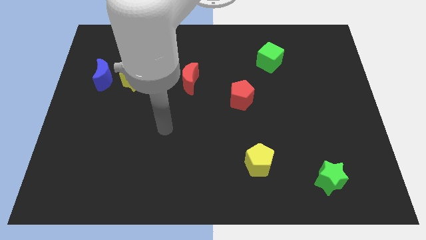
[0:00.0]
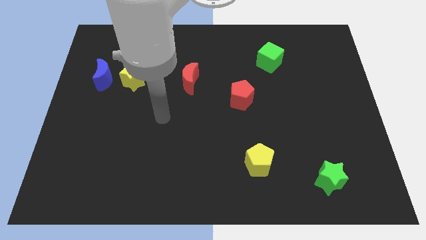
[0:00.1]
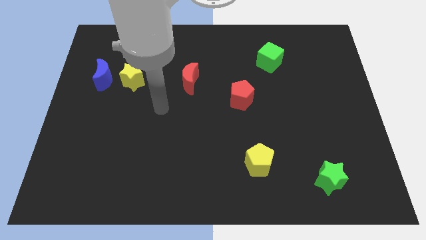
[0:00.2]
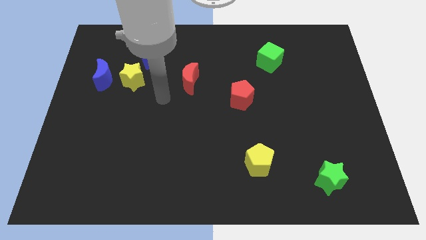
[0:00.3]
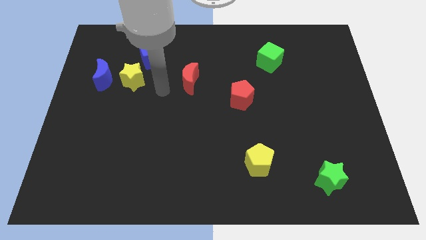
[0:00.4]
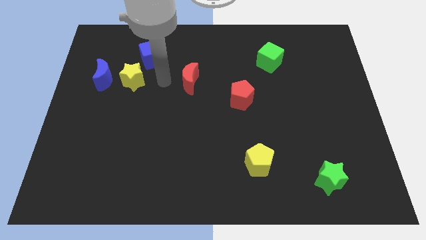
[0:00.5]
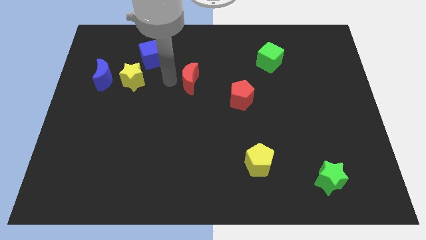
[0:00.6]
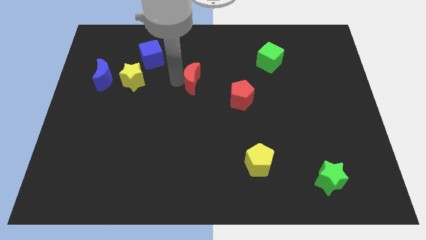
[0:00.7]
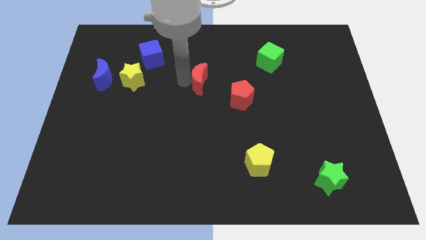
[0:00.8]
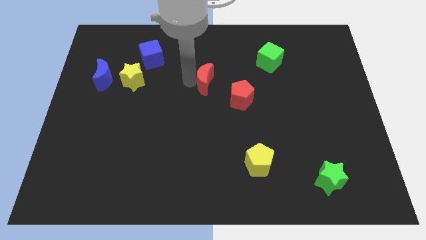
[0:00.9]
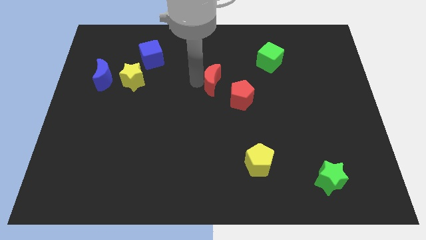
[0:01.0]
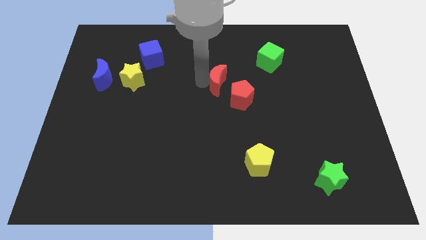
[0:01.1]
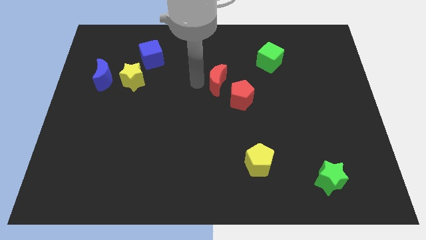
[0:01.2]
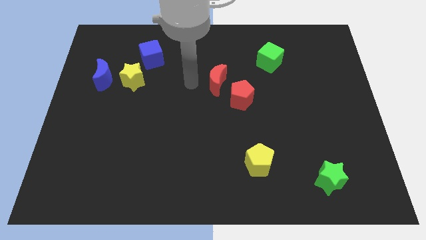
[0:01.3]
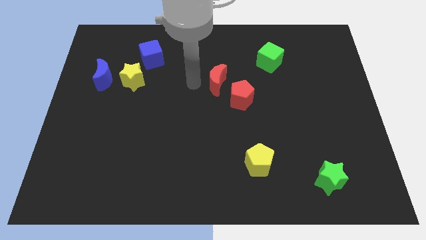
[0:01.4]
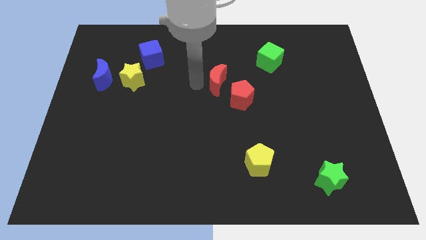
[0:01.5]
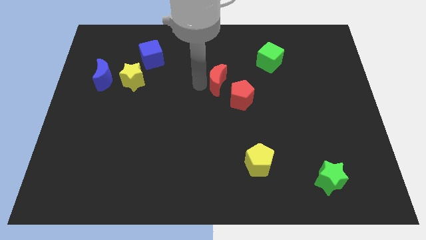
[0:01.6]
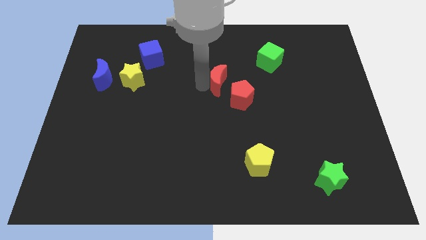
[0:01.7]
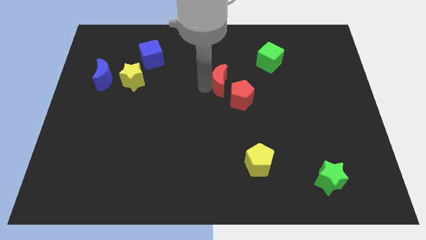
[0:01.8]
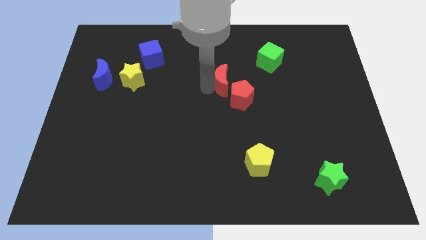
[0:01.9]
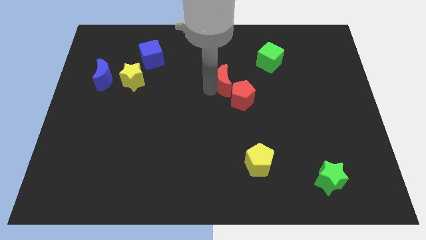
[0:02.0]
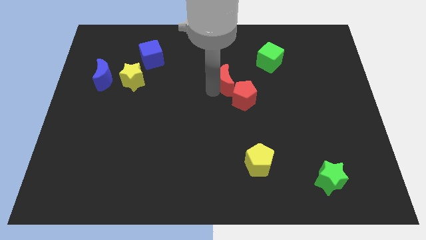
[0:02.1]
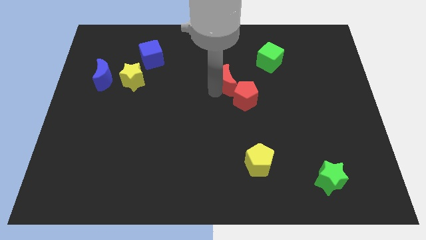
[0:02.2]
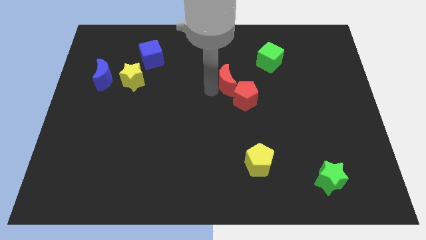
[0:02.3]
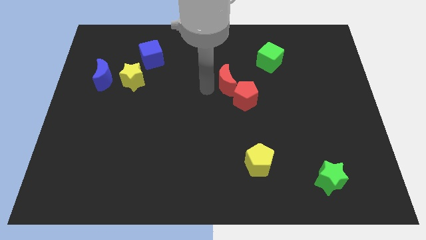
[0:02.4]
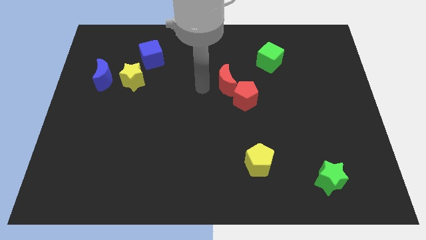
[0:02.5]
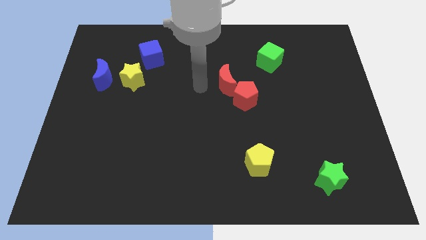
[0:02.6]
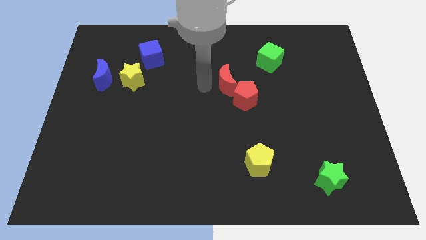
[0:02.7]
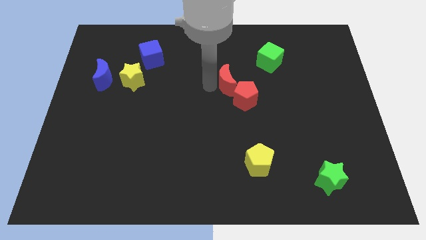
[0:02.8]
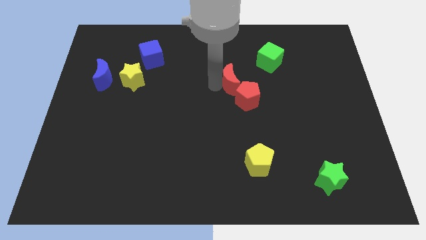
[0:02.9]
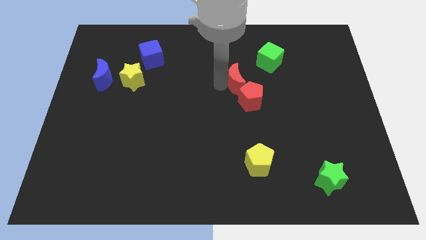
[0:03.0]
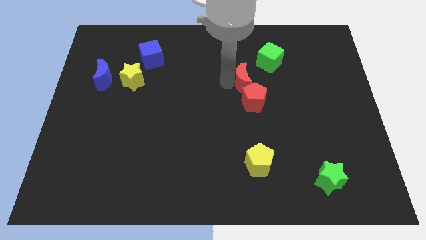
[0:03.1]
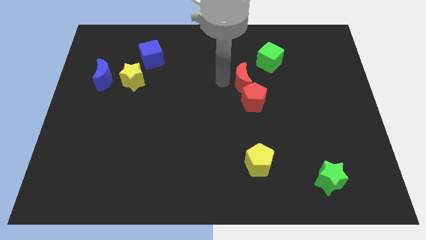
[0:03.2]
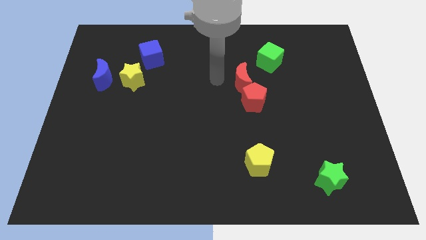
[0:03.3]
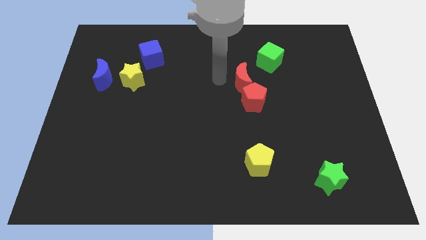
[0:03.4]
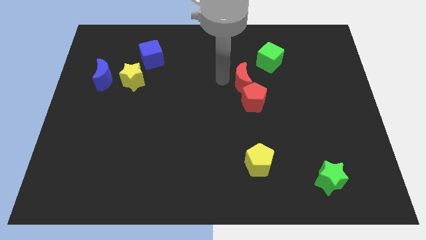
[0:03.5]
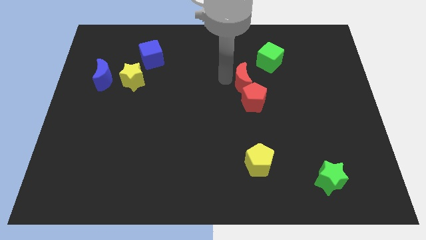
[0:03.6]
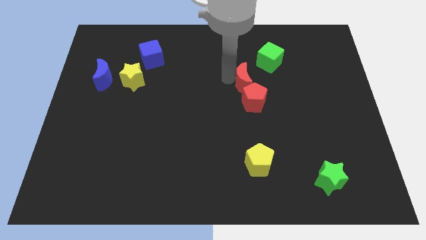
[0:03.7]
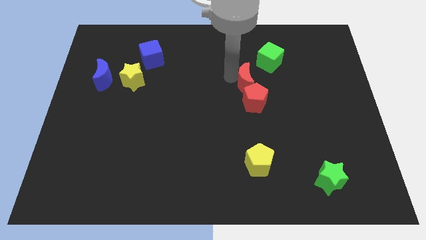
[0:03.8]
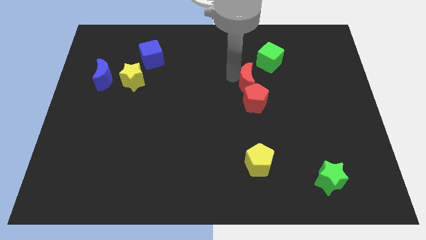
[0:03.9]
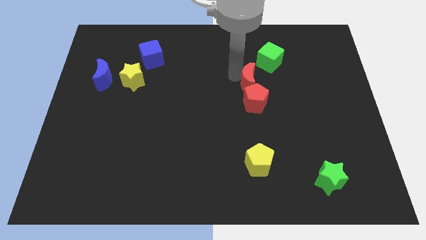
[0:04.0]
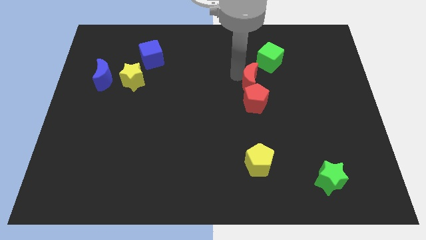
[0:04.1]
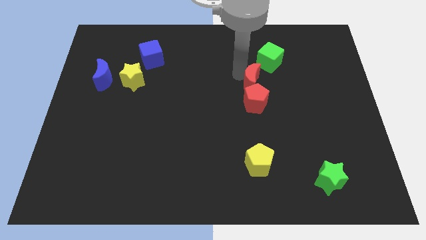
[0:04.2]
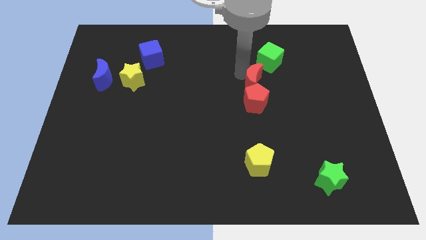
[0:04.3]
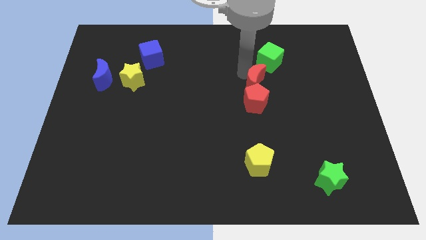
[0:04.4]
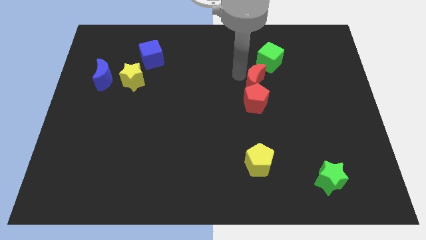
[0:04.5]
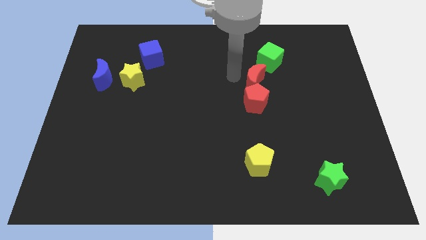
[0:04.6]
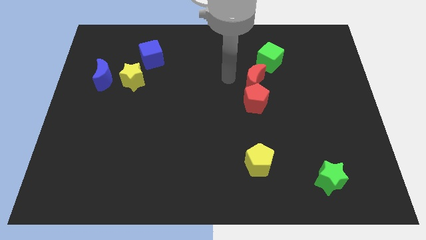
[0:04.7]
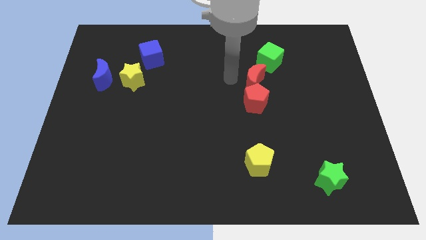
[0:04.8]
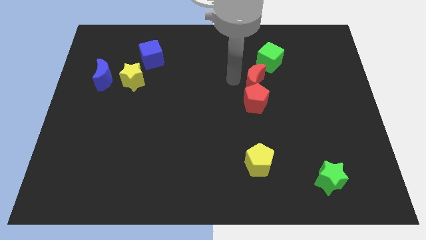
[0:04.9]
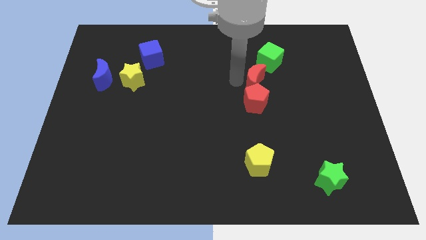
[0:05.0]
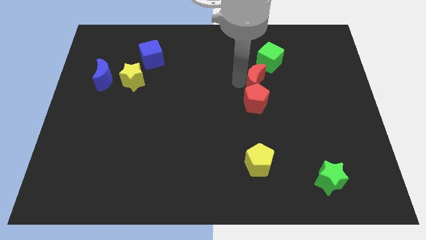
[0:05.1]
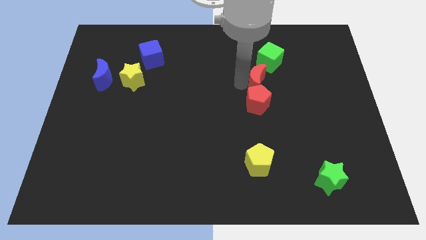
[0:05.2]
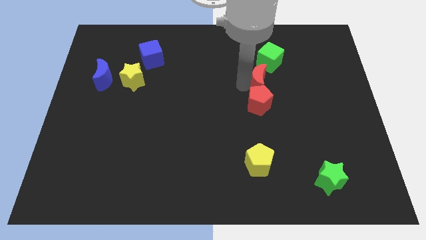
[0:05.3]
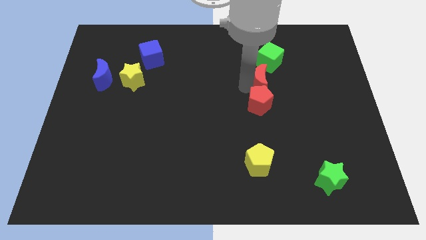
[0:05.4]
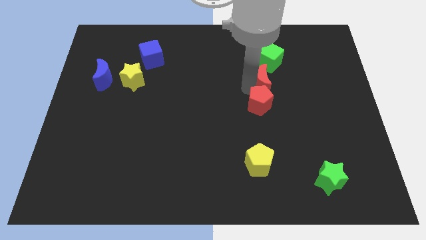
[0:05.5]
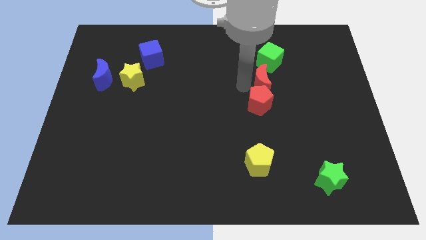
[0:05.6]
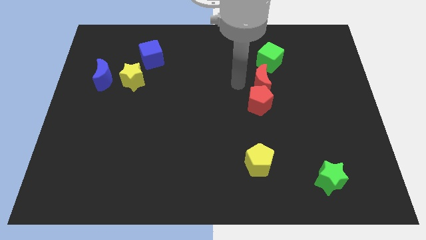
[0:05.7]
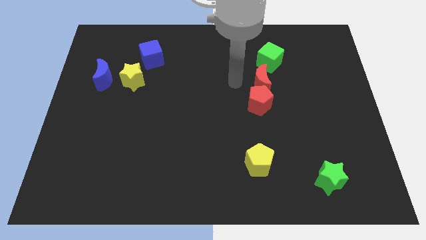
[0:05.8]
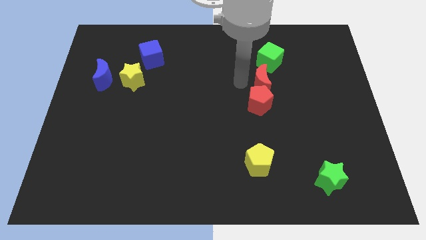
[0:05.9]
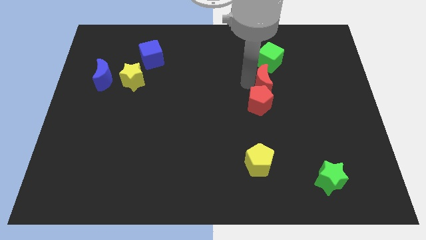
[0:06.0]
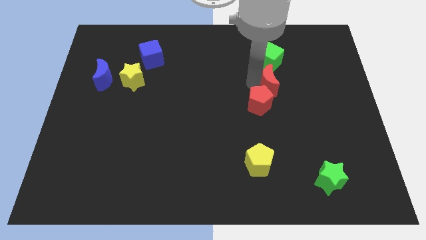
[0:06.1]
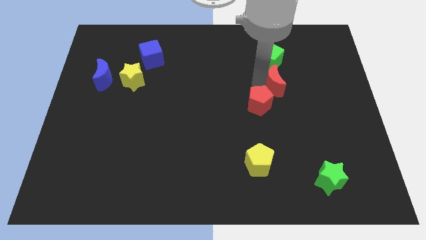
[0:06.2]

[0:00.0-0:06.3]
slide the red moon to the right

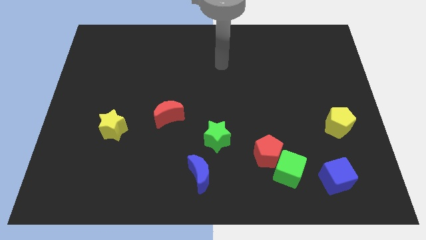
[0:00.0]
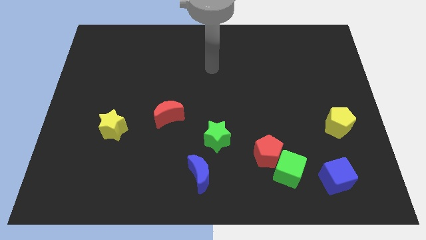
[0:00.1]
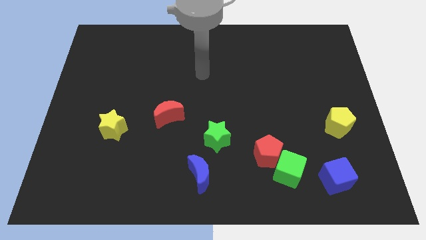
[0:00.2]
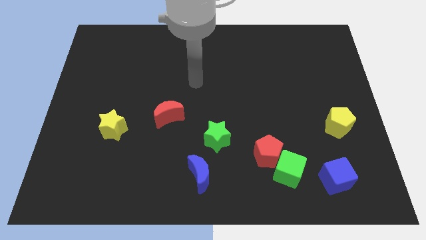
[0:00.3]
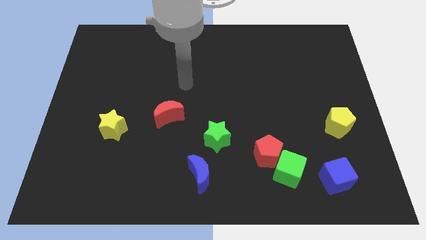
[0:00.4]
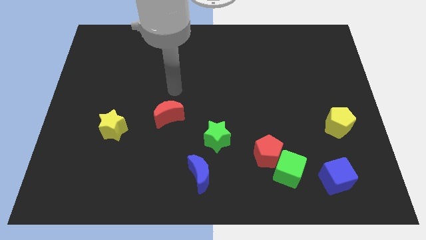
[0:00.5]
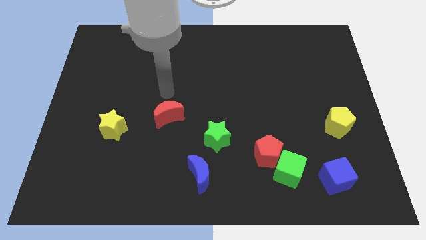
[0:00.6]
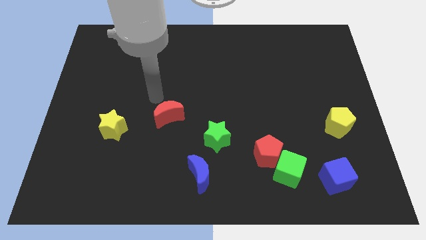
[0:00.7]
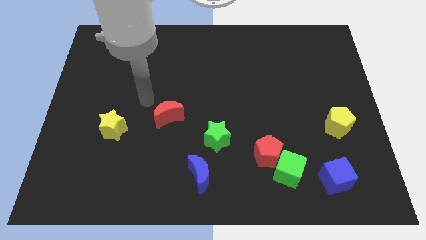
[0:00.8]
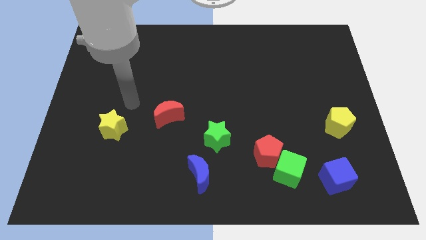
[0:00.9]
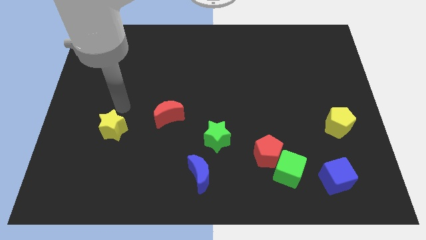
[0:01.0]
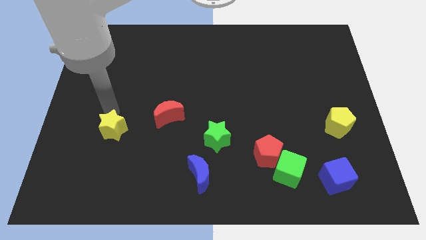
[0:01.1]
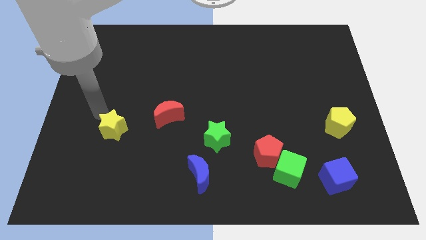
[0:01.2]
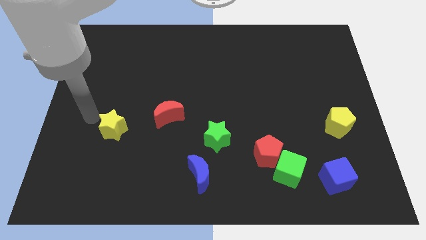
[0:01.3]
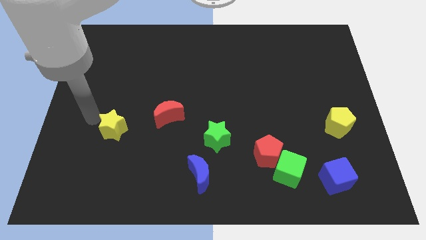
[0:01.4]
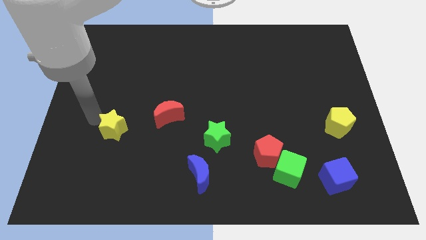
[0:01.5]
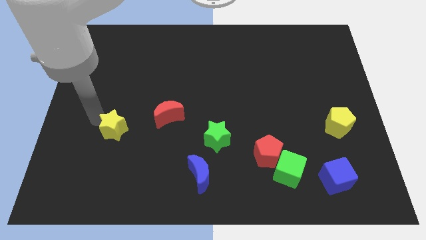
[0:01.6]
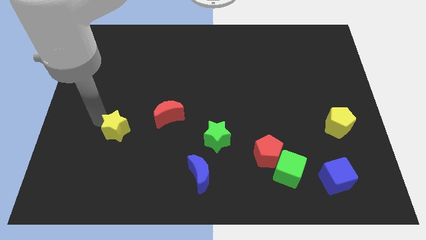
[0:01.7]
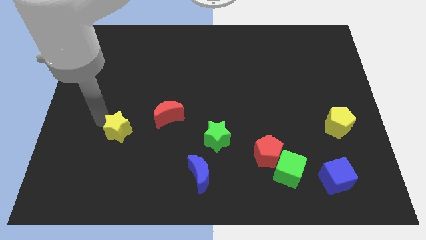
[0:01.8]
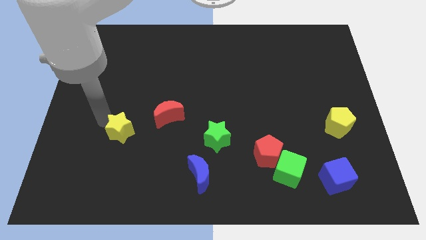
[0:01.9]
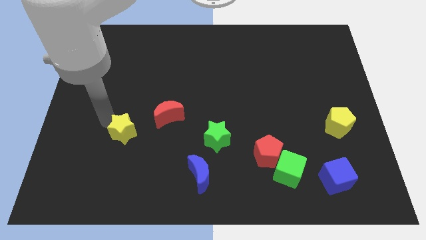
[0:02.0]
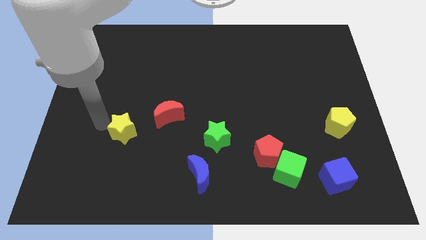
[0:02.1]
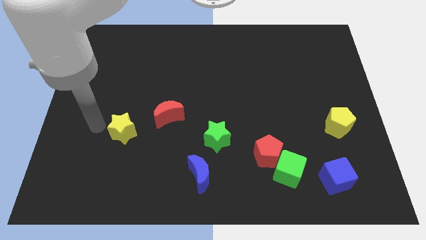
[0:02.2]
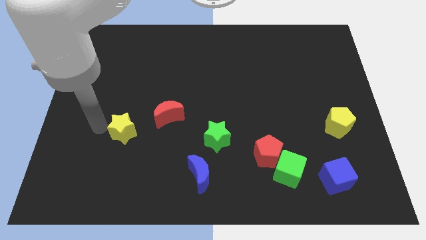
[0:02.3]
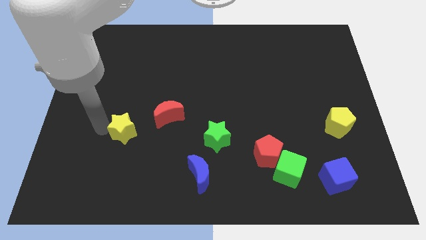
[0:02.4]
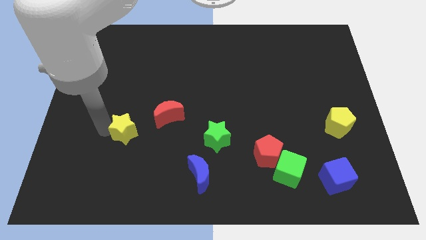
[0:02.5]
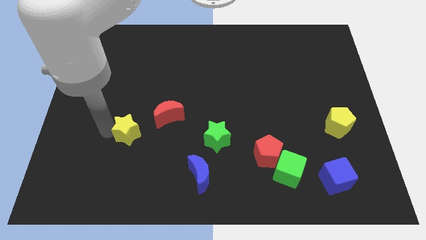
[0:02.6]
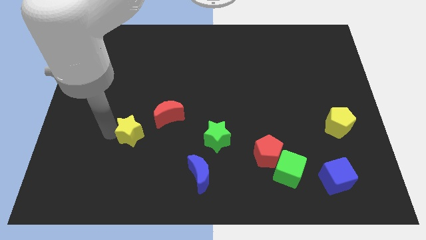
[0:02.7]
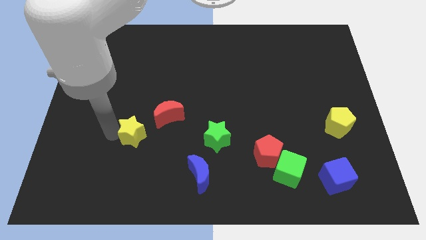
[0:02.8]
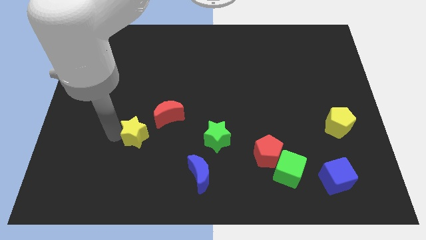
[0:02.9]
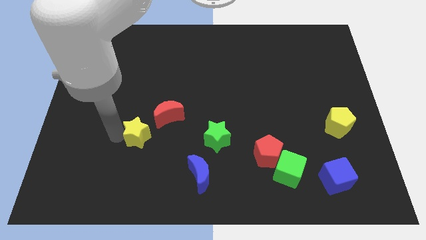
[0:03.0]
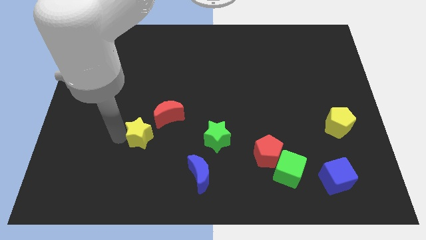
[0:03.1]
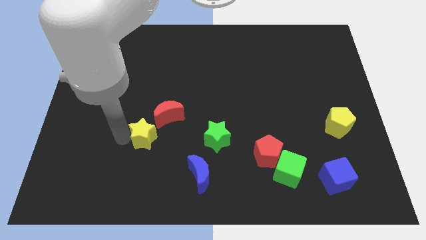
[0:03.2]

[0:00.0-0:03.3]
slide the yellow star right somewhat
